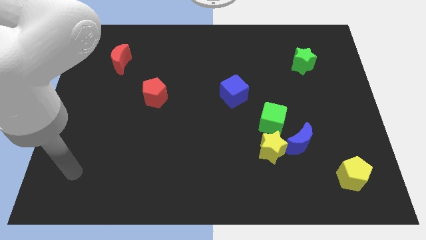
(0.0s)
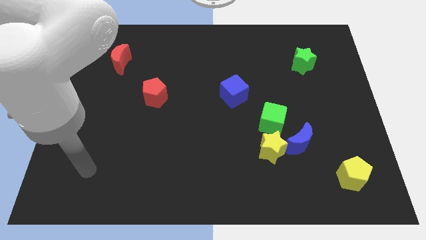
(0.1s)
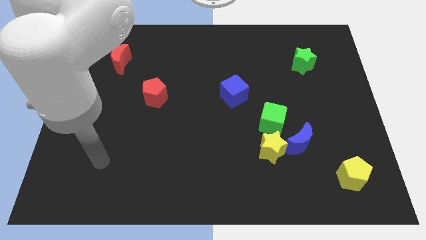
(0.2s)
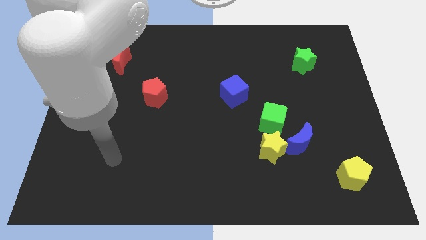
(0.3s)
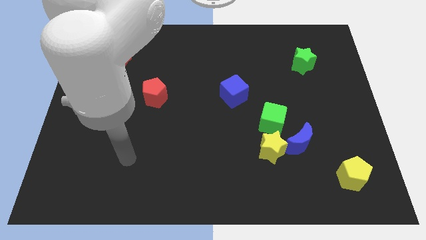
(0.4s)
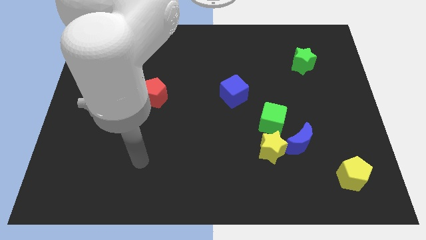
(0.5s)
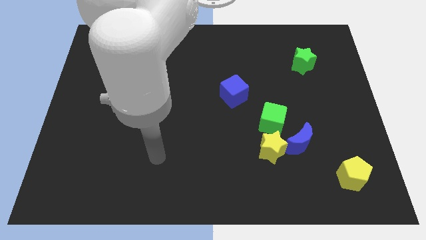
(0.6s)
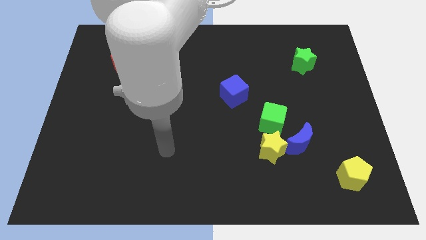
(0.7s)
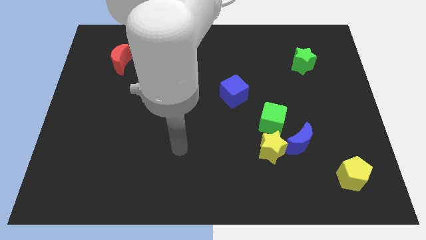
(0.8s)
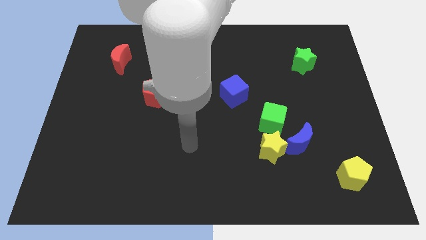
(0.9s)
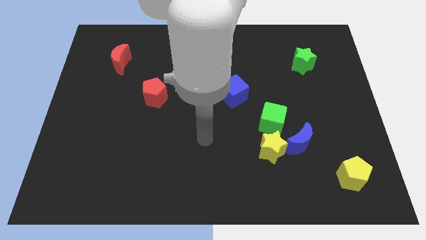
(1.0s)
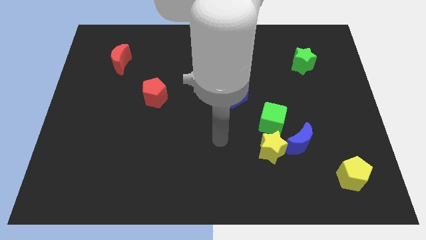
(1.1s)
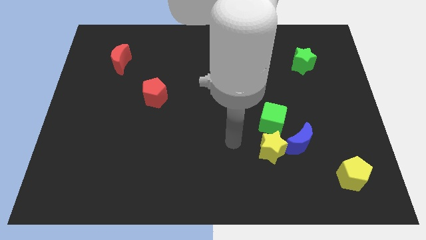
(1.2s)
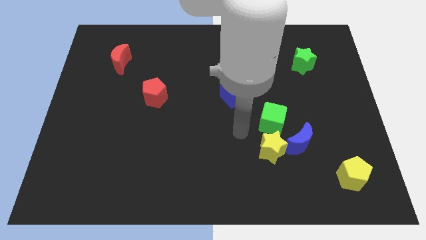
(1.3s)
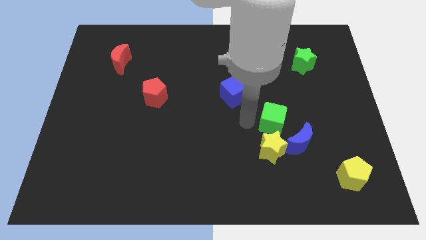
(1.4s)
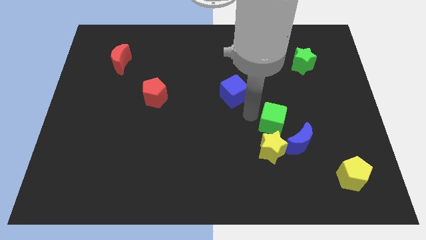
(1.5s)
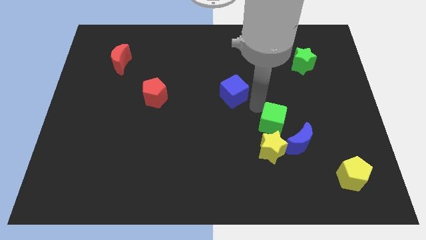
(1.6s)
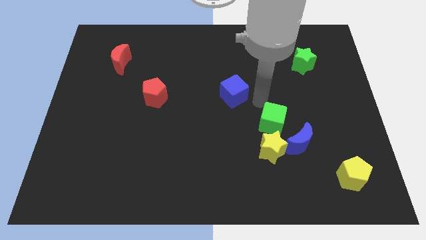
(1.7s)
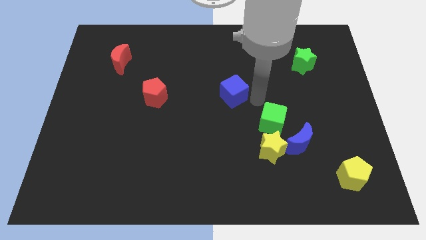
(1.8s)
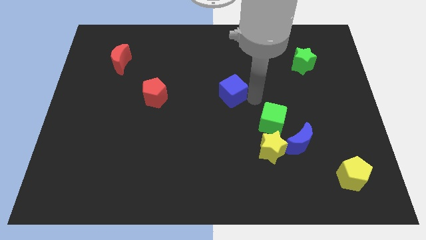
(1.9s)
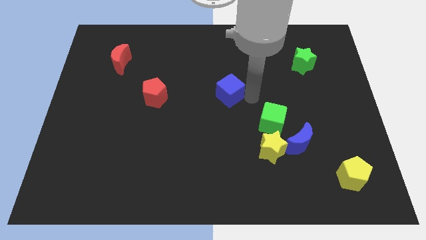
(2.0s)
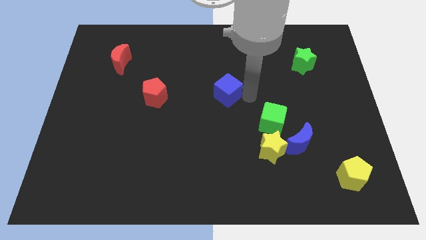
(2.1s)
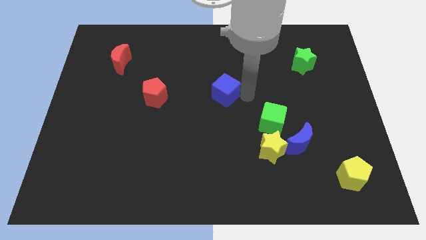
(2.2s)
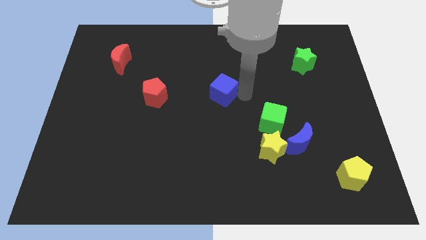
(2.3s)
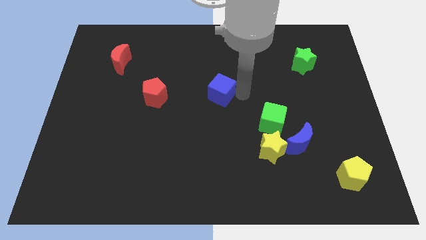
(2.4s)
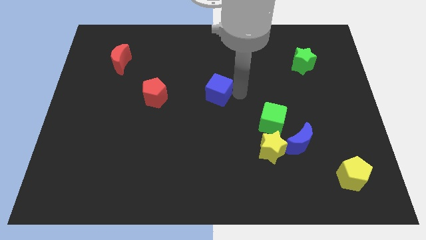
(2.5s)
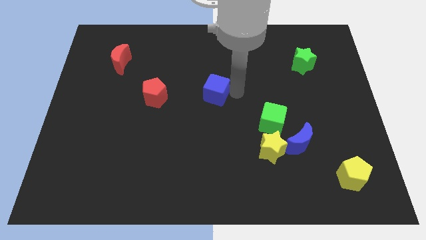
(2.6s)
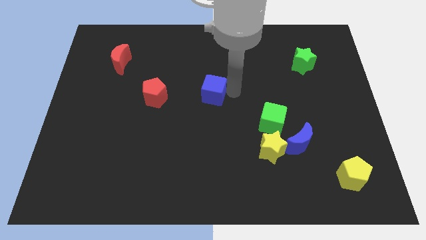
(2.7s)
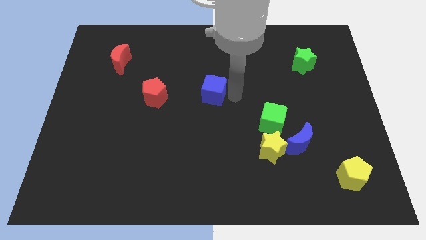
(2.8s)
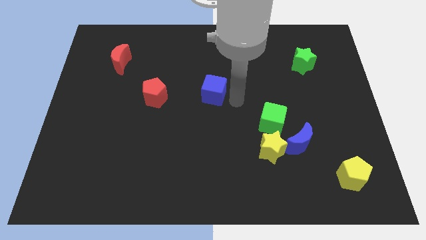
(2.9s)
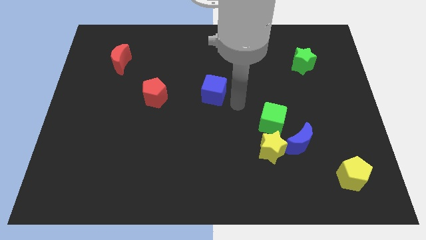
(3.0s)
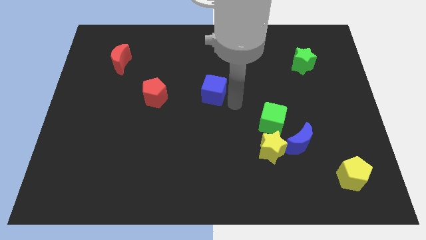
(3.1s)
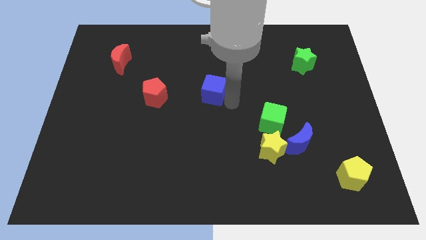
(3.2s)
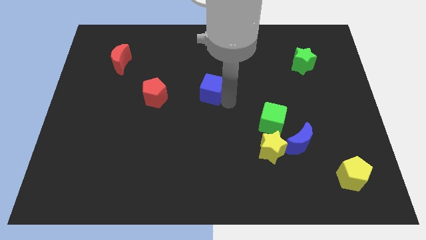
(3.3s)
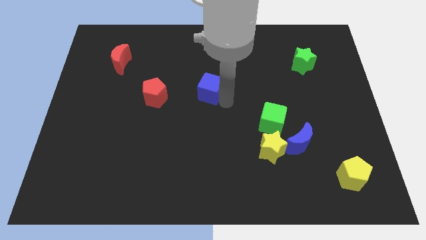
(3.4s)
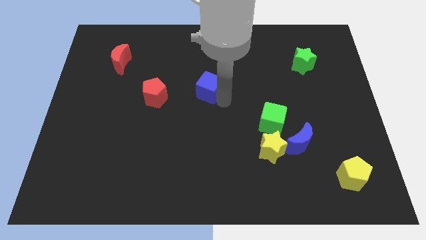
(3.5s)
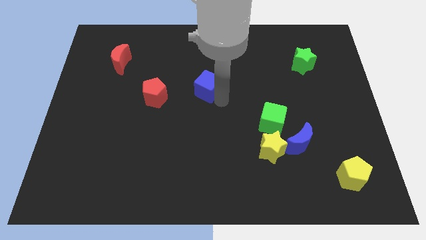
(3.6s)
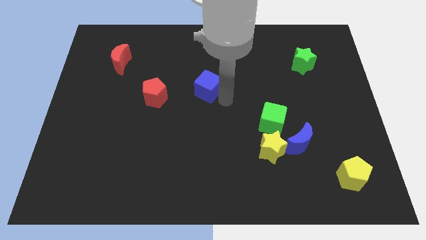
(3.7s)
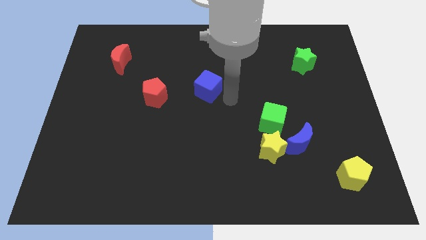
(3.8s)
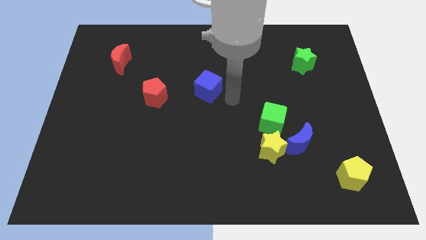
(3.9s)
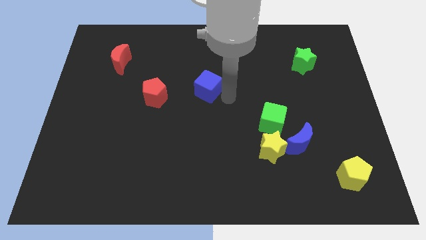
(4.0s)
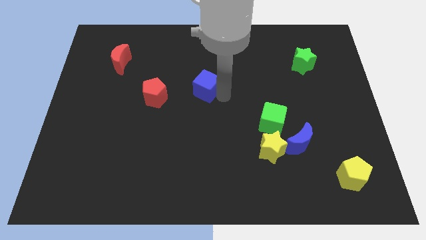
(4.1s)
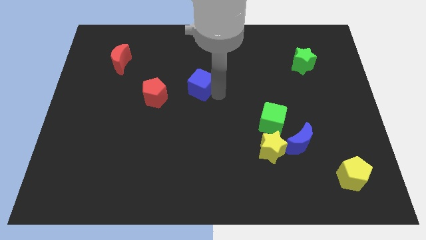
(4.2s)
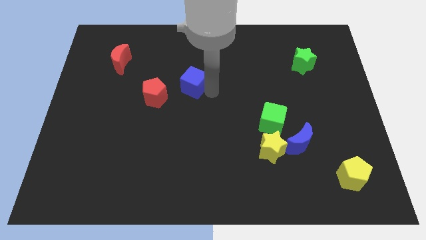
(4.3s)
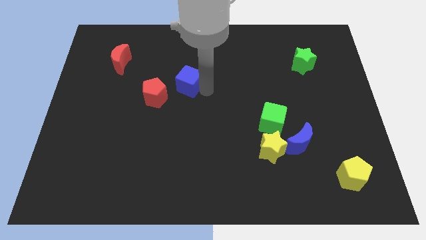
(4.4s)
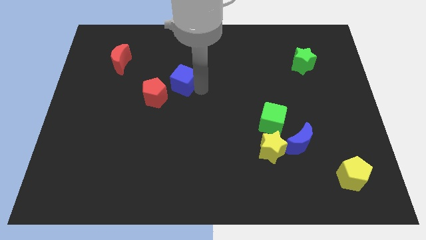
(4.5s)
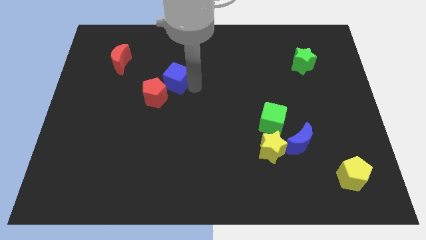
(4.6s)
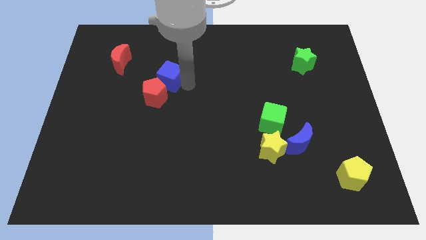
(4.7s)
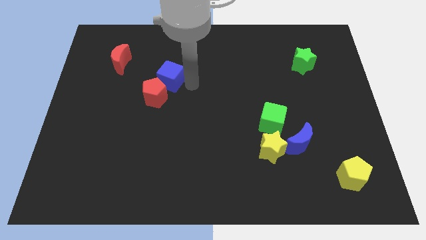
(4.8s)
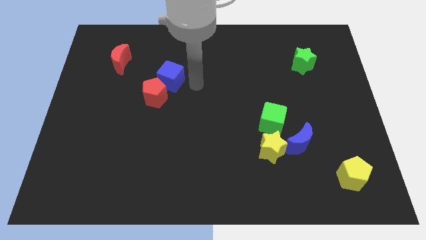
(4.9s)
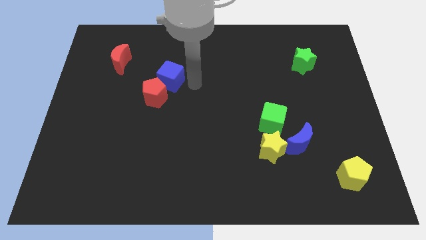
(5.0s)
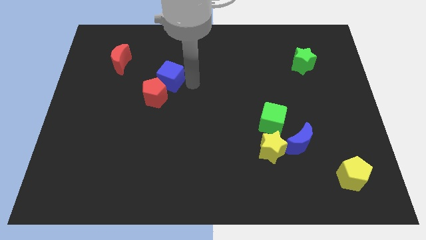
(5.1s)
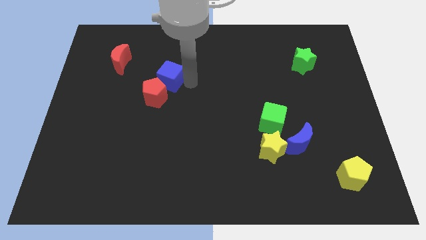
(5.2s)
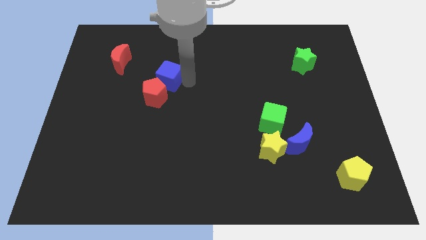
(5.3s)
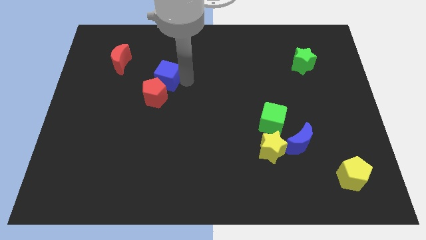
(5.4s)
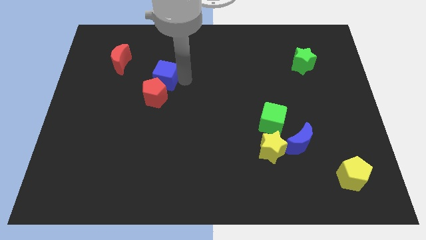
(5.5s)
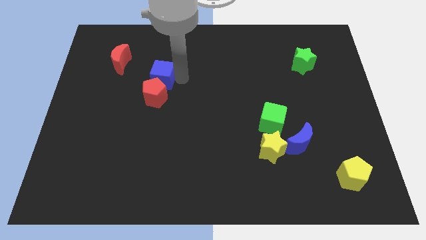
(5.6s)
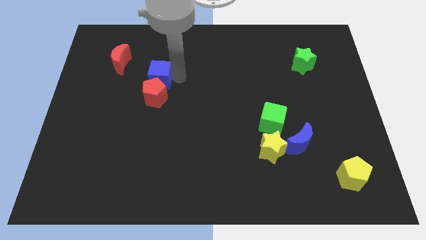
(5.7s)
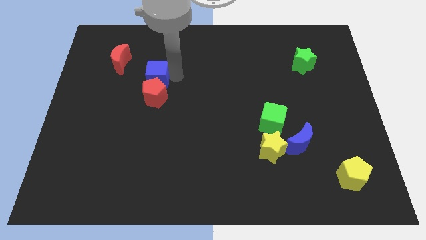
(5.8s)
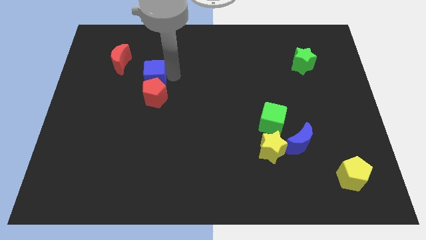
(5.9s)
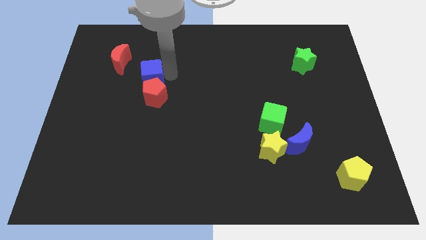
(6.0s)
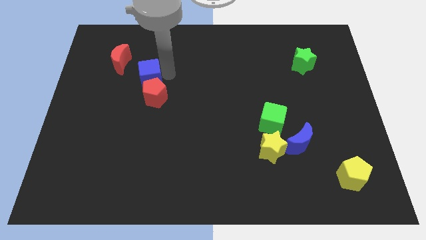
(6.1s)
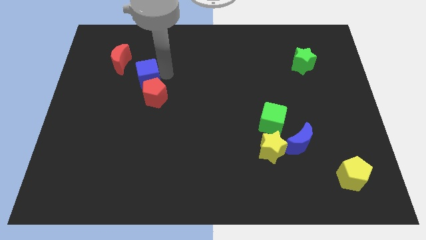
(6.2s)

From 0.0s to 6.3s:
push the blue cube to the left

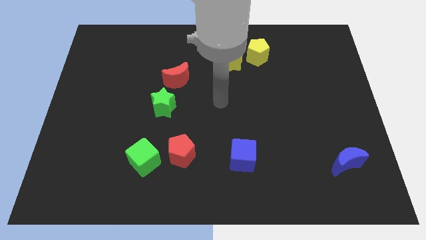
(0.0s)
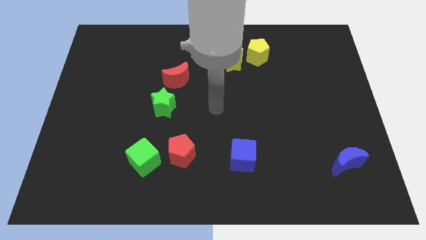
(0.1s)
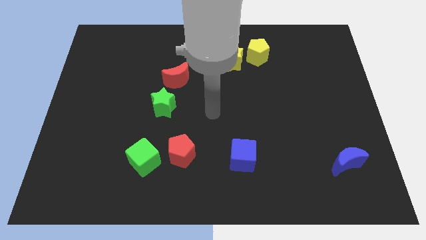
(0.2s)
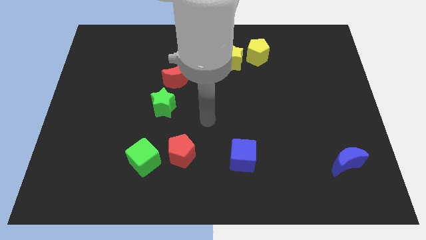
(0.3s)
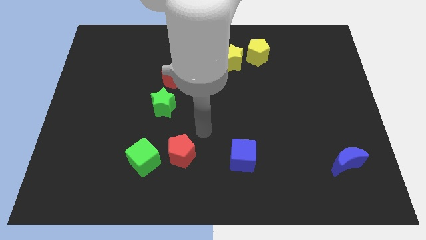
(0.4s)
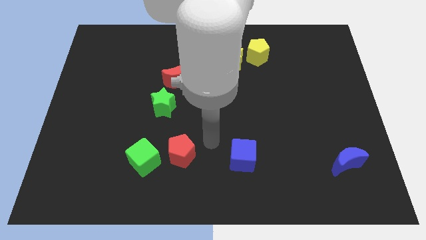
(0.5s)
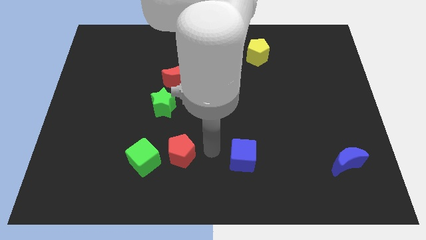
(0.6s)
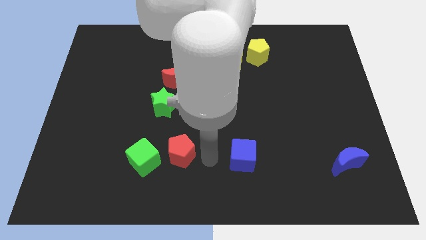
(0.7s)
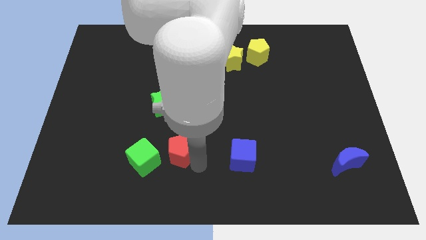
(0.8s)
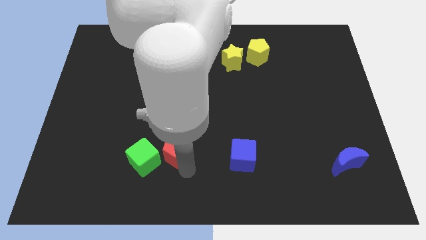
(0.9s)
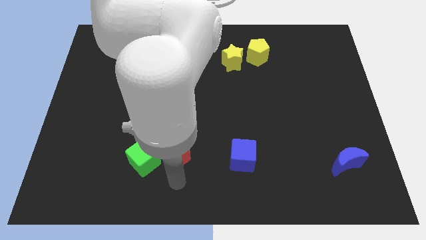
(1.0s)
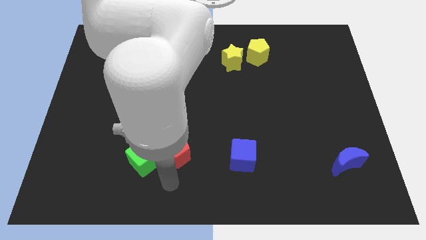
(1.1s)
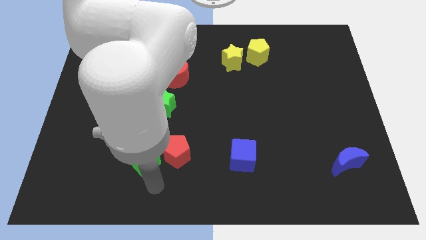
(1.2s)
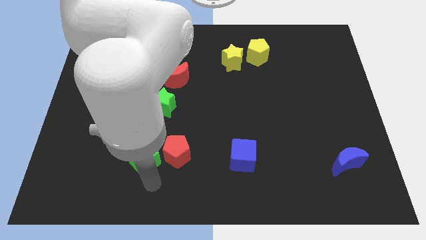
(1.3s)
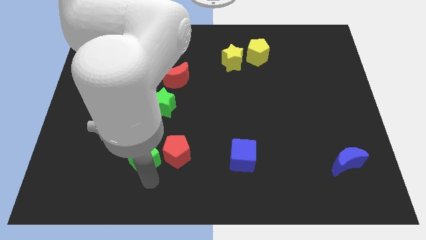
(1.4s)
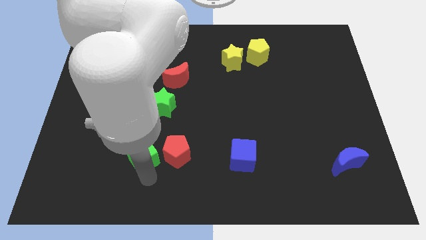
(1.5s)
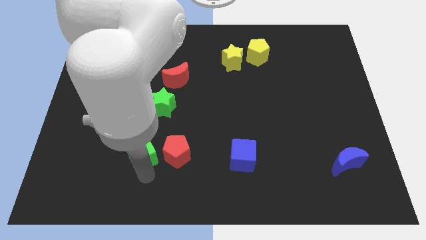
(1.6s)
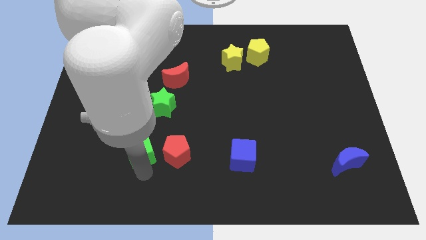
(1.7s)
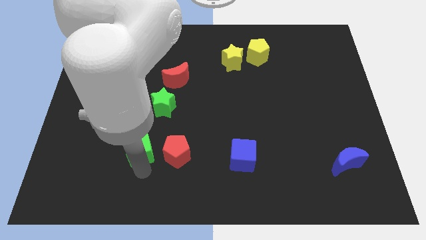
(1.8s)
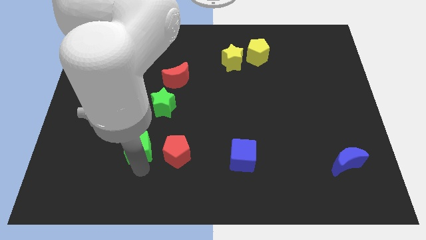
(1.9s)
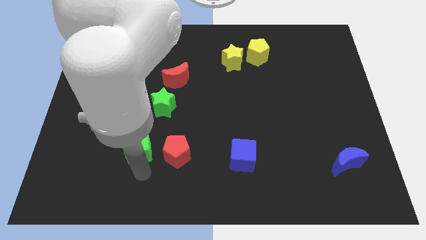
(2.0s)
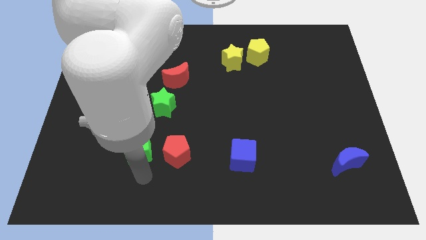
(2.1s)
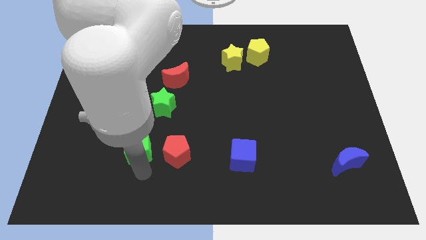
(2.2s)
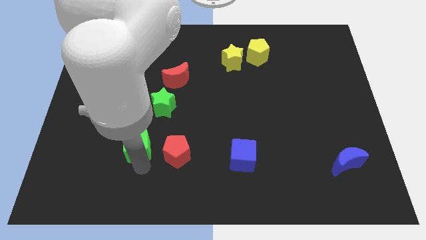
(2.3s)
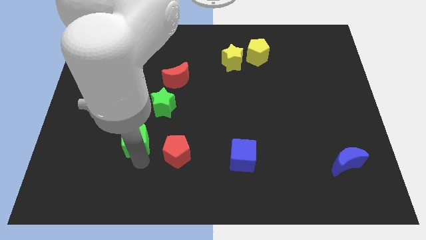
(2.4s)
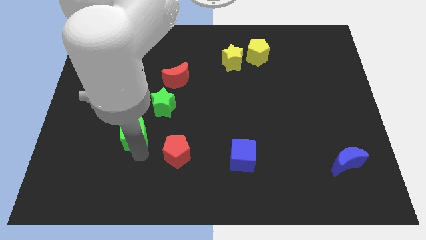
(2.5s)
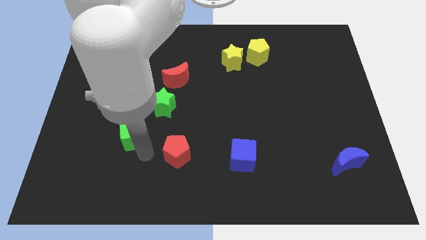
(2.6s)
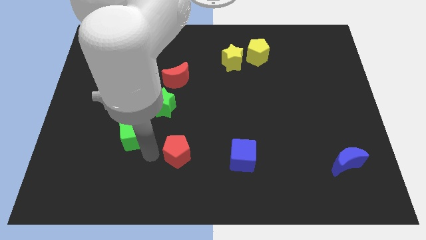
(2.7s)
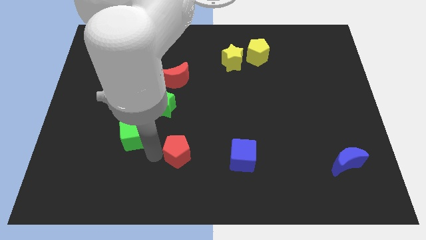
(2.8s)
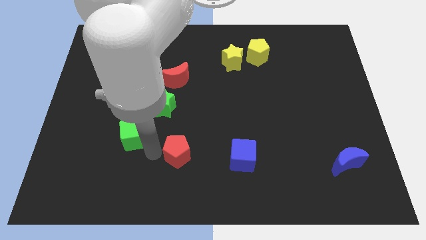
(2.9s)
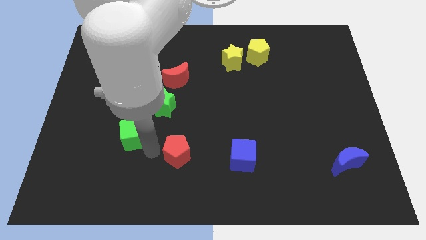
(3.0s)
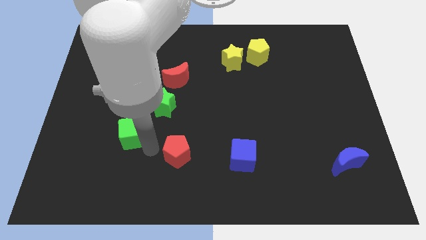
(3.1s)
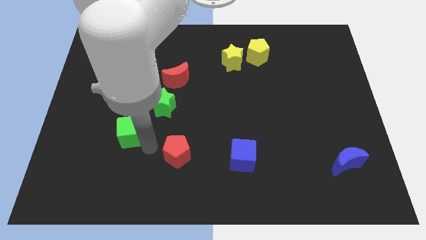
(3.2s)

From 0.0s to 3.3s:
push the green cube up and left diagonally a little bit
